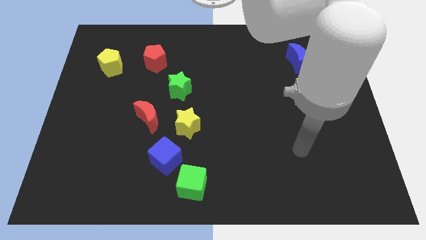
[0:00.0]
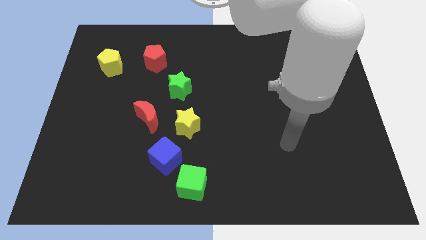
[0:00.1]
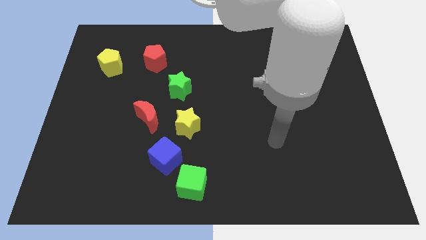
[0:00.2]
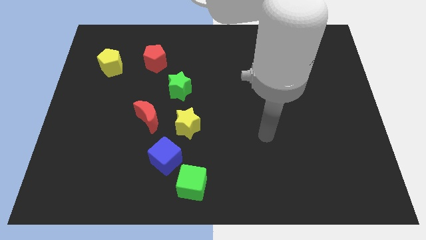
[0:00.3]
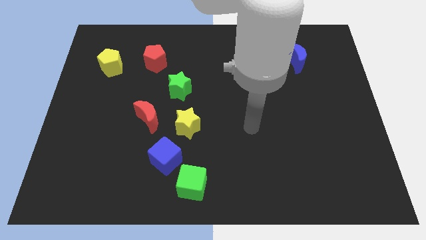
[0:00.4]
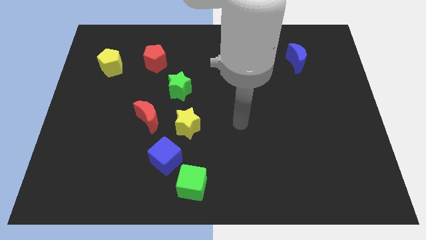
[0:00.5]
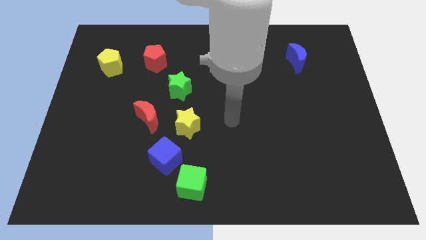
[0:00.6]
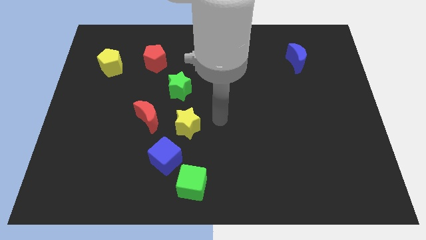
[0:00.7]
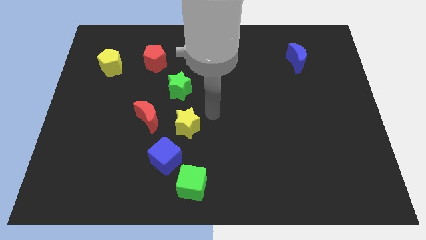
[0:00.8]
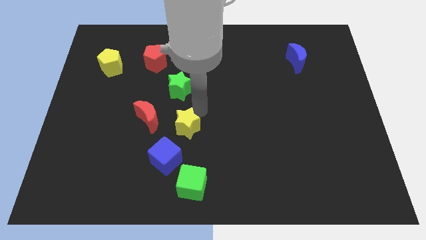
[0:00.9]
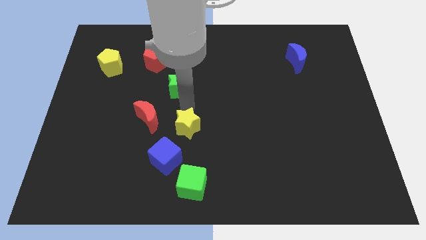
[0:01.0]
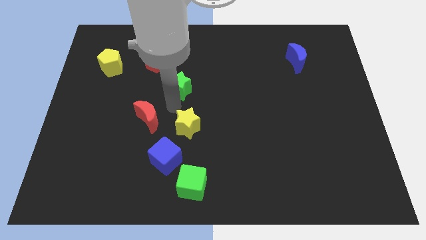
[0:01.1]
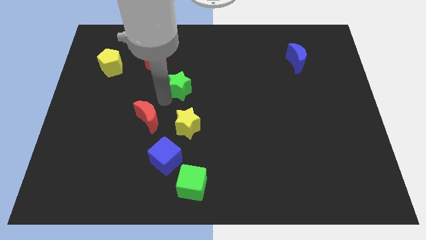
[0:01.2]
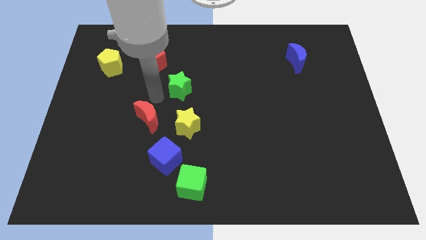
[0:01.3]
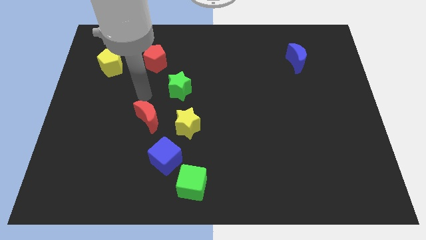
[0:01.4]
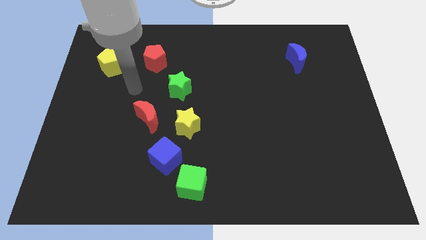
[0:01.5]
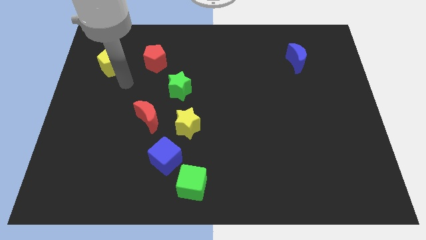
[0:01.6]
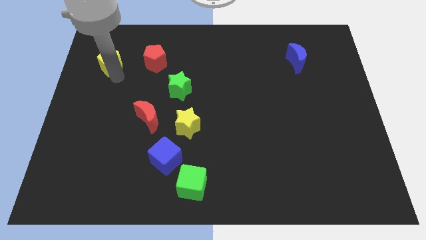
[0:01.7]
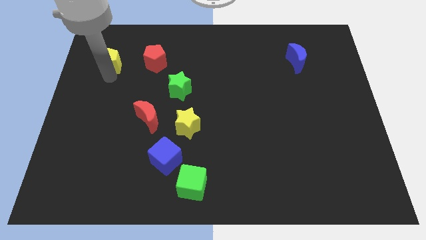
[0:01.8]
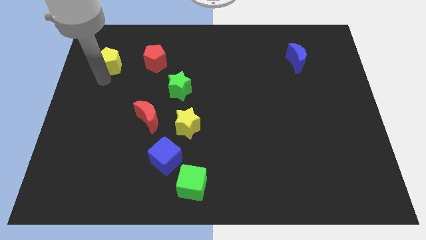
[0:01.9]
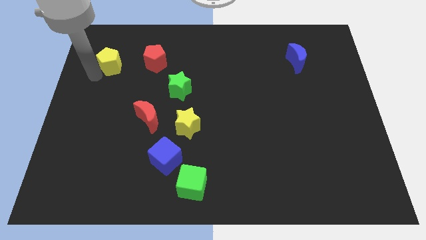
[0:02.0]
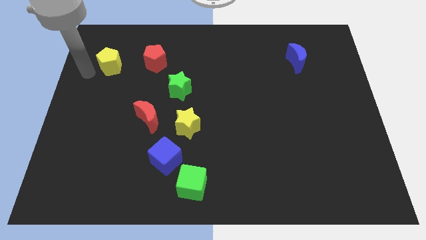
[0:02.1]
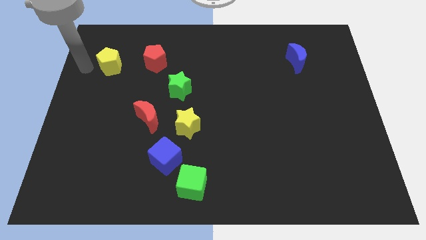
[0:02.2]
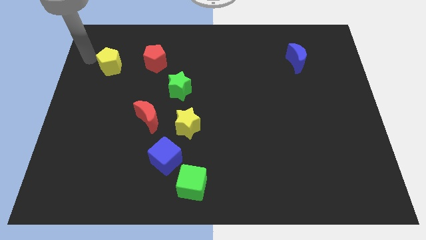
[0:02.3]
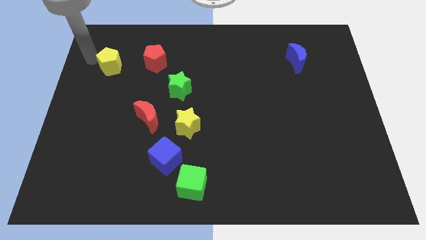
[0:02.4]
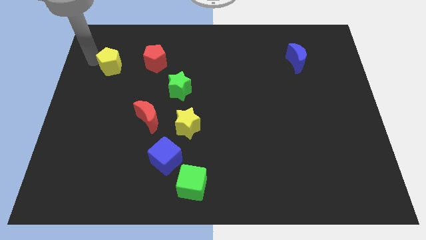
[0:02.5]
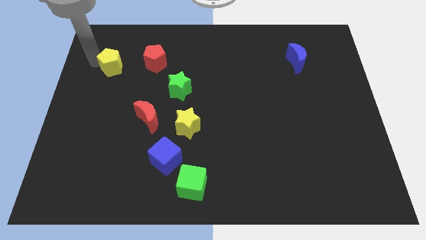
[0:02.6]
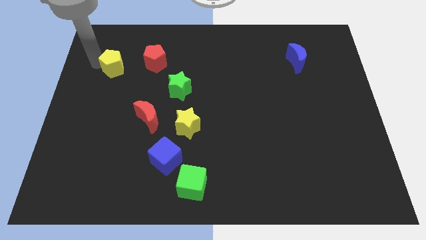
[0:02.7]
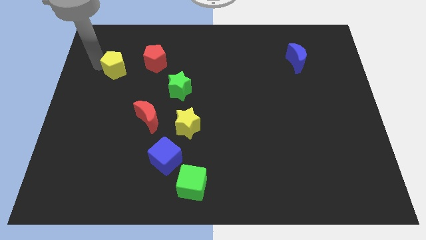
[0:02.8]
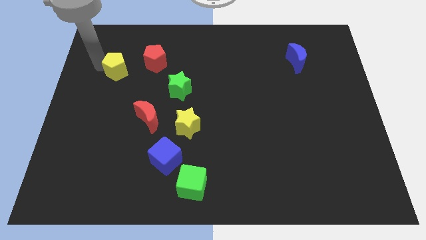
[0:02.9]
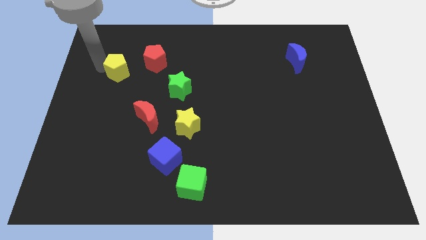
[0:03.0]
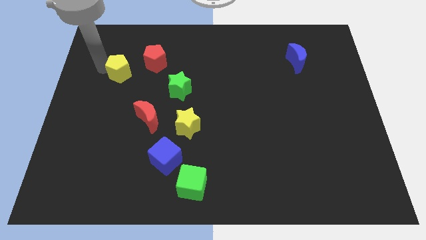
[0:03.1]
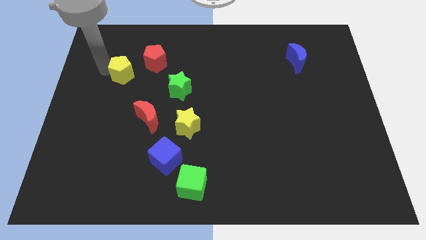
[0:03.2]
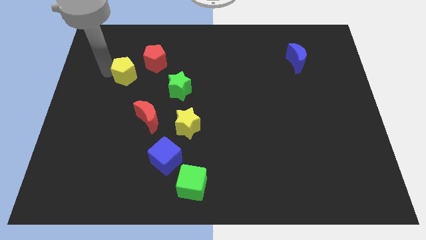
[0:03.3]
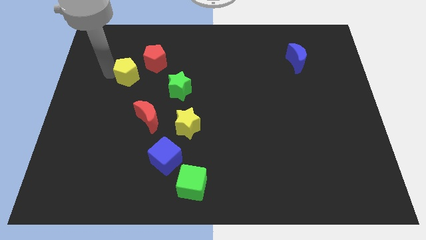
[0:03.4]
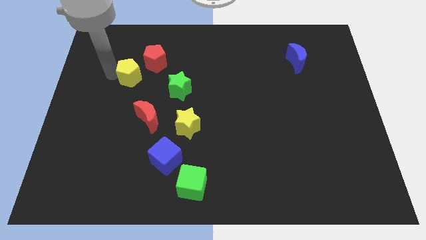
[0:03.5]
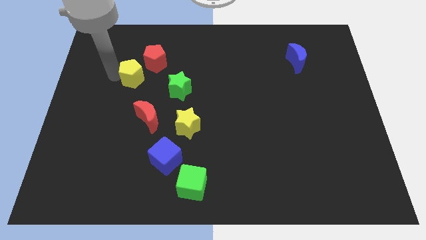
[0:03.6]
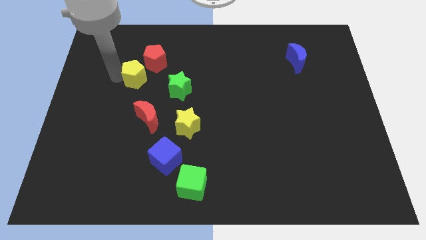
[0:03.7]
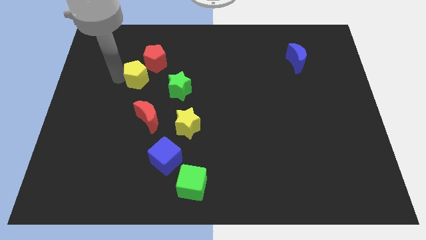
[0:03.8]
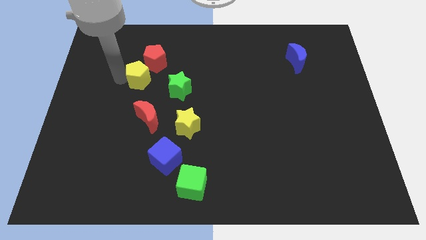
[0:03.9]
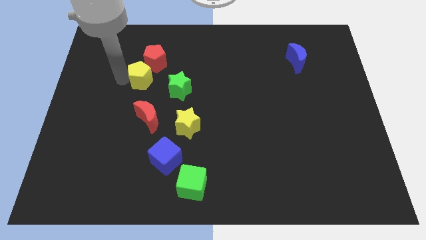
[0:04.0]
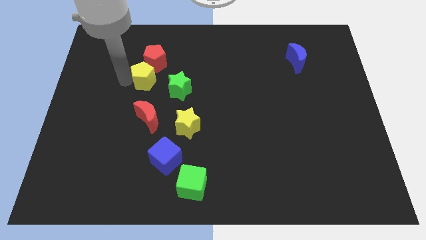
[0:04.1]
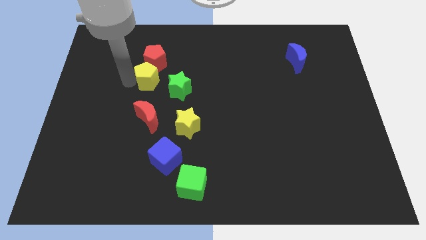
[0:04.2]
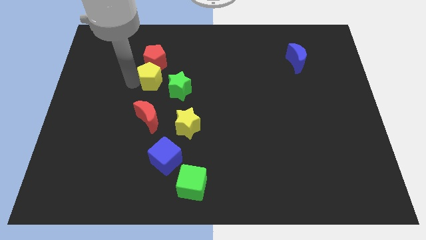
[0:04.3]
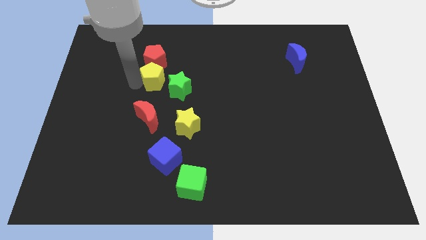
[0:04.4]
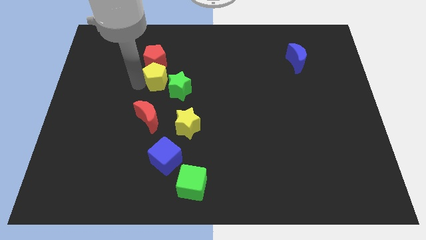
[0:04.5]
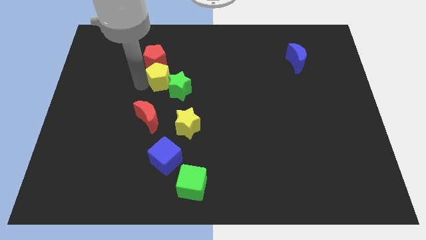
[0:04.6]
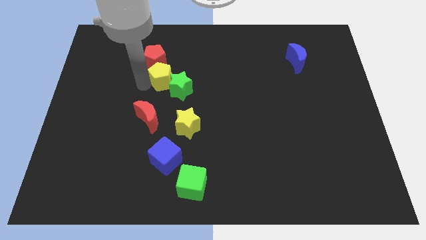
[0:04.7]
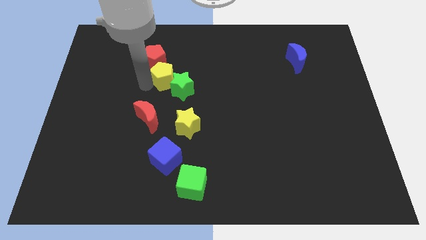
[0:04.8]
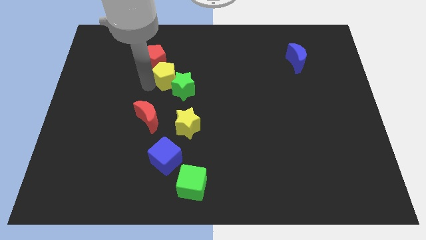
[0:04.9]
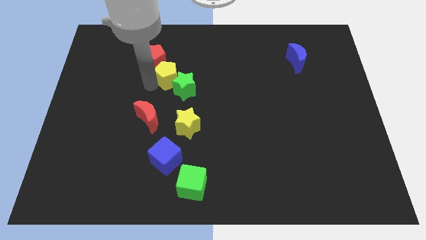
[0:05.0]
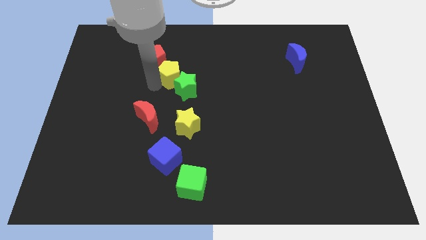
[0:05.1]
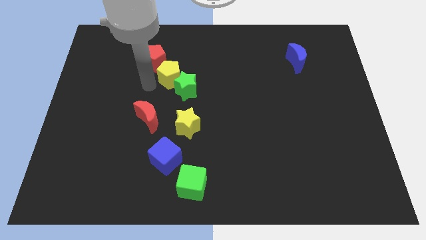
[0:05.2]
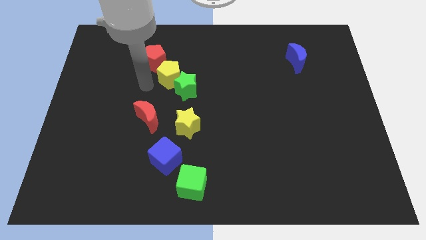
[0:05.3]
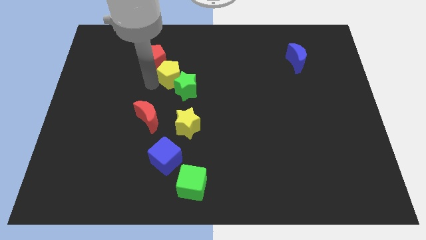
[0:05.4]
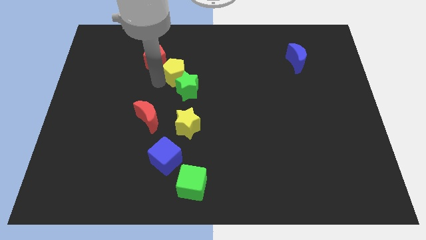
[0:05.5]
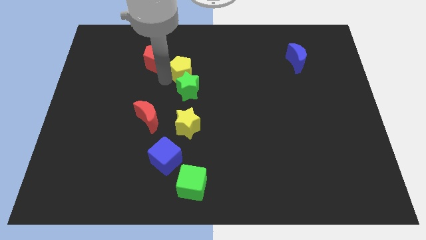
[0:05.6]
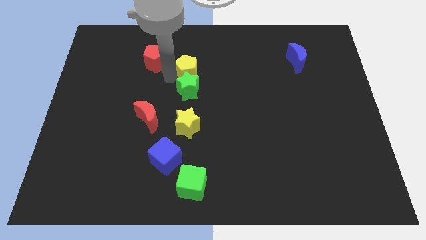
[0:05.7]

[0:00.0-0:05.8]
slide the yellow pentagon to the right

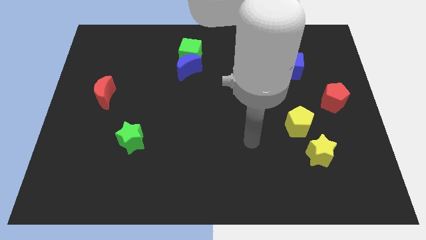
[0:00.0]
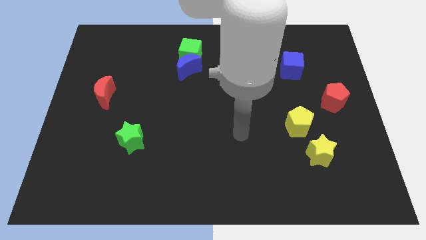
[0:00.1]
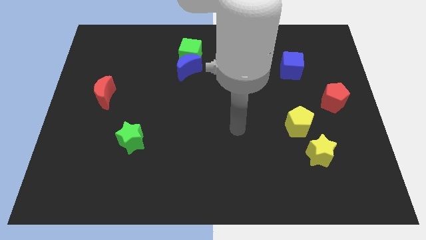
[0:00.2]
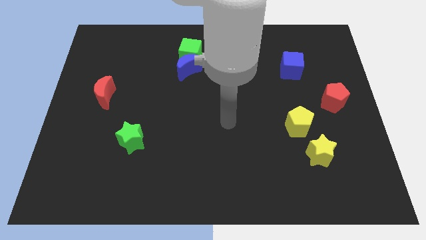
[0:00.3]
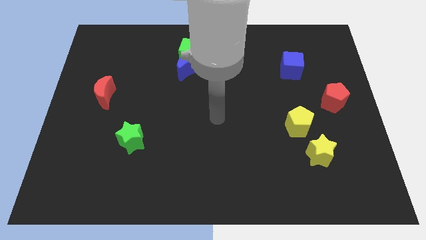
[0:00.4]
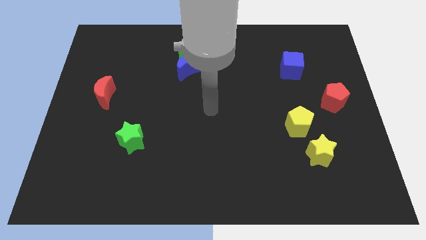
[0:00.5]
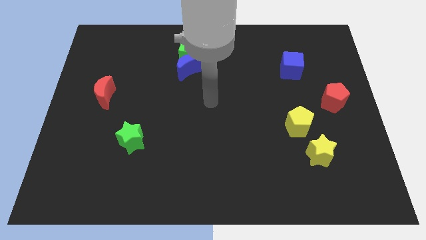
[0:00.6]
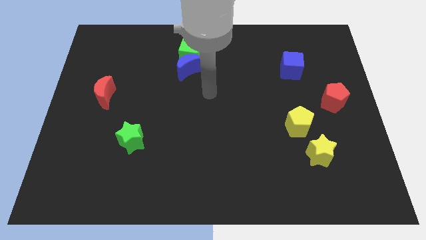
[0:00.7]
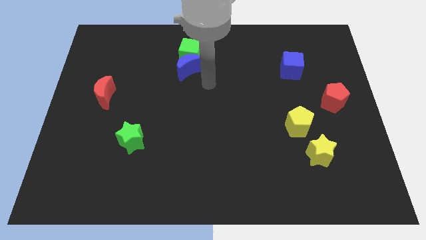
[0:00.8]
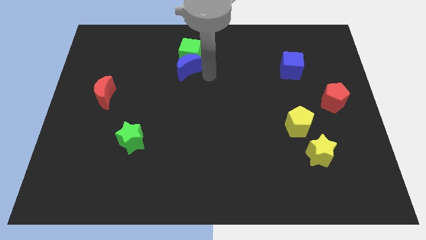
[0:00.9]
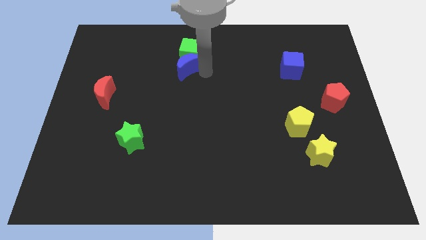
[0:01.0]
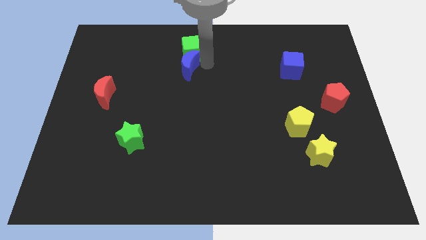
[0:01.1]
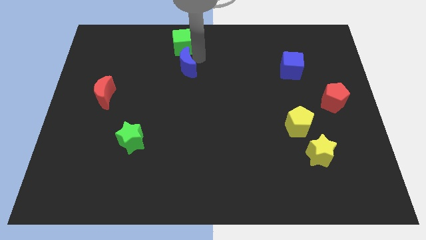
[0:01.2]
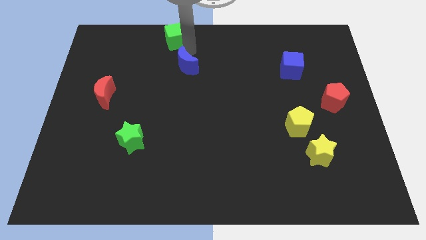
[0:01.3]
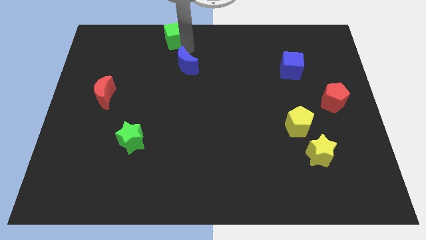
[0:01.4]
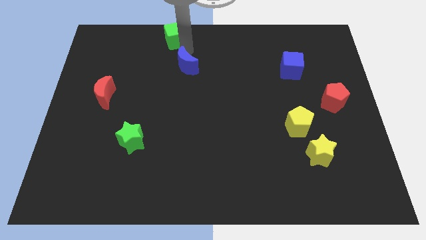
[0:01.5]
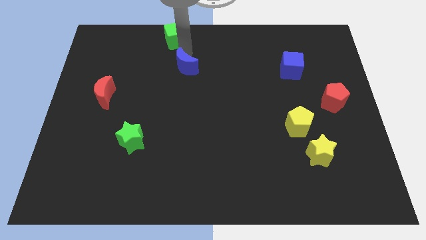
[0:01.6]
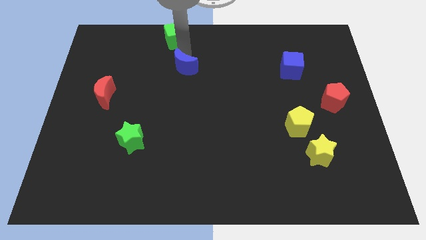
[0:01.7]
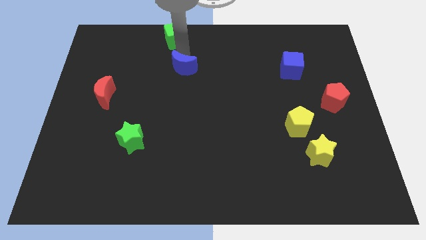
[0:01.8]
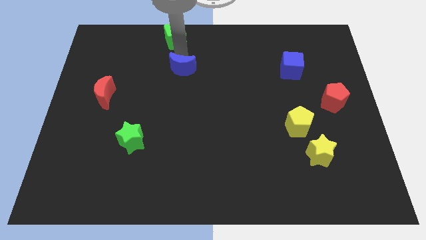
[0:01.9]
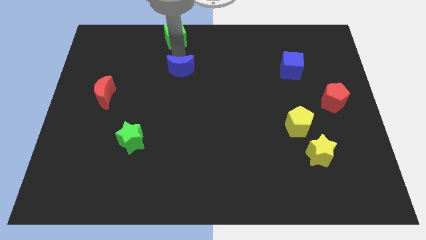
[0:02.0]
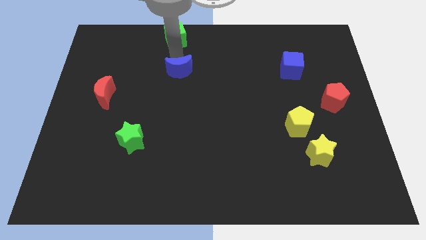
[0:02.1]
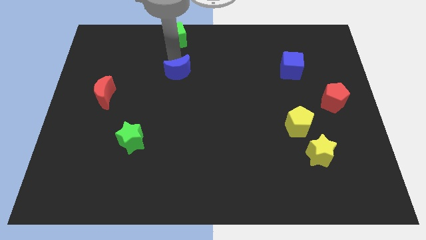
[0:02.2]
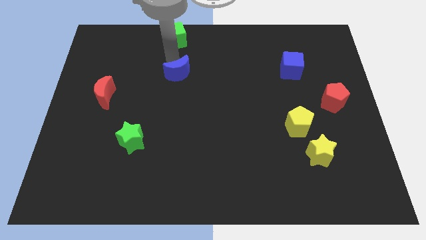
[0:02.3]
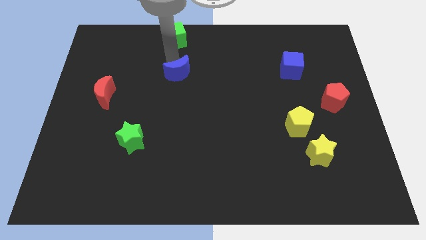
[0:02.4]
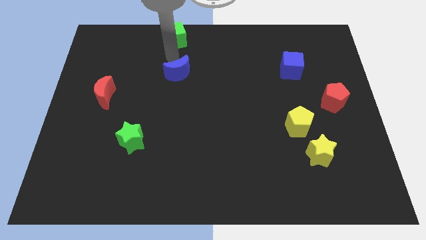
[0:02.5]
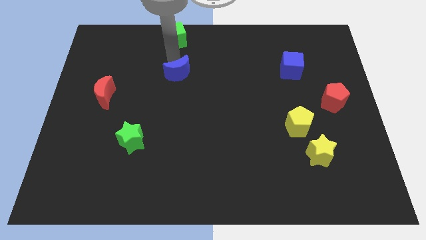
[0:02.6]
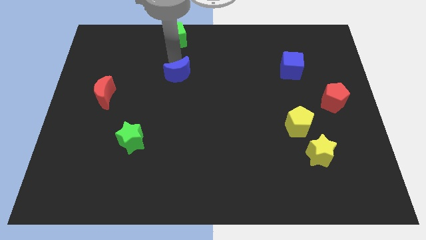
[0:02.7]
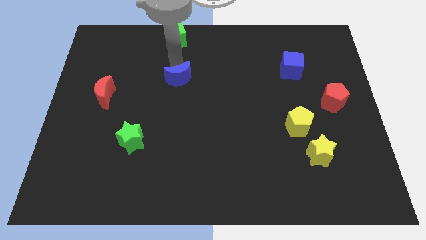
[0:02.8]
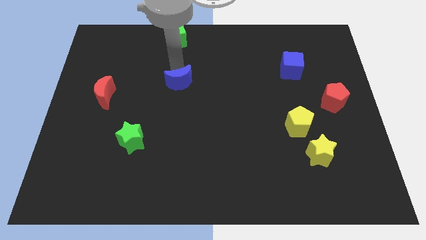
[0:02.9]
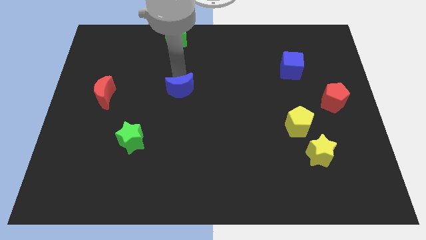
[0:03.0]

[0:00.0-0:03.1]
slide the blue moon a little bit down
